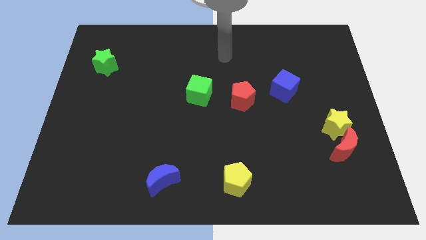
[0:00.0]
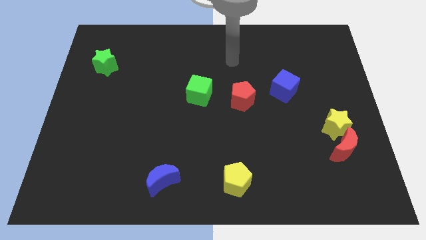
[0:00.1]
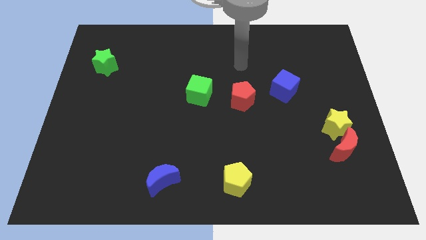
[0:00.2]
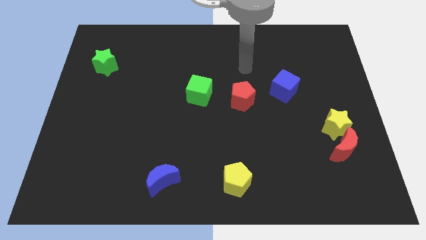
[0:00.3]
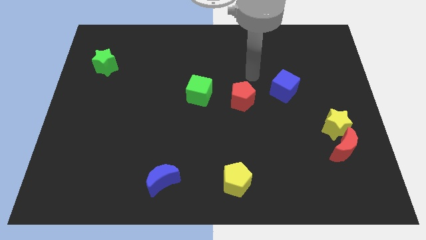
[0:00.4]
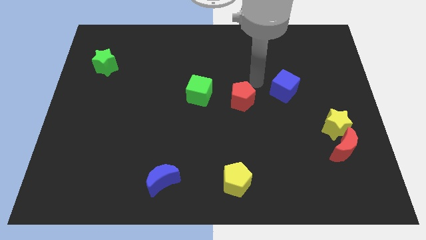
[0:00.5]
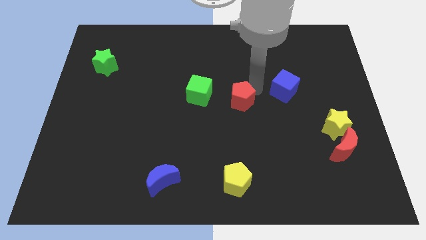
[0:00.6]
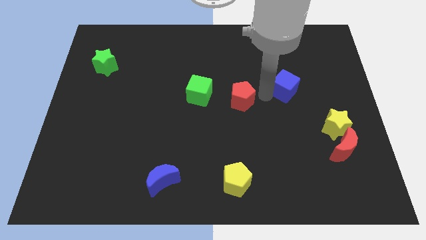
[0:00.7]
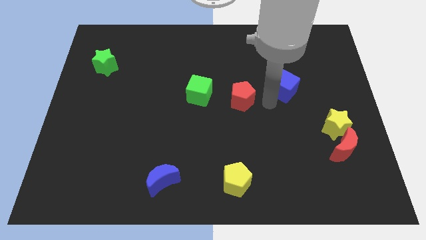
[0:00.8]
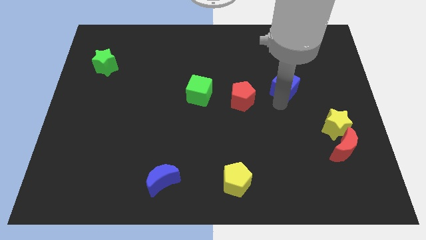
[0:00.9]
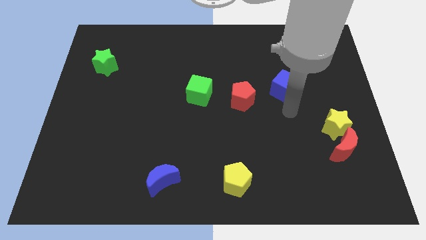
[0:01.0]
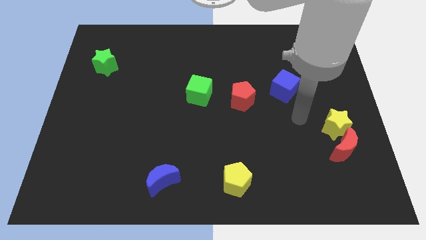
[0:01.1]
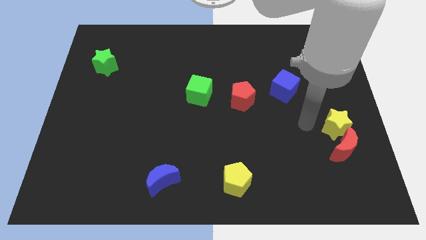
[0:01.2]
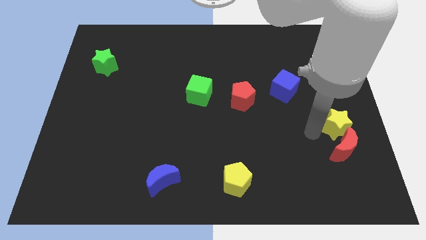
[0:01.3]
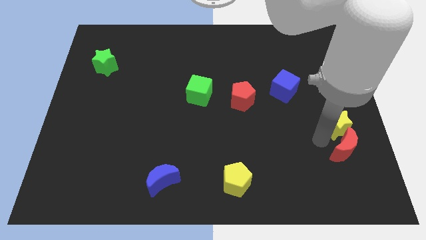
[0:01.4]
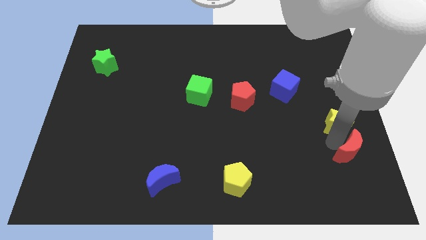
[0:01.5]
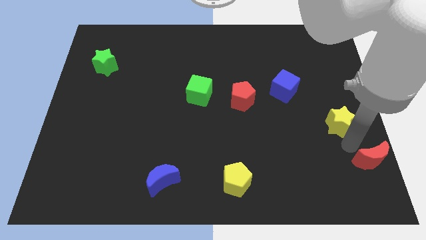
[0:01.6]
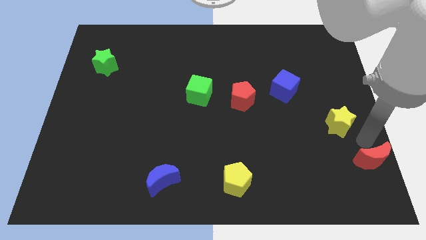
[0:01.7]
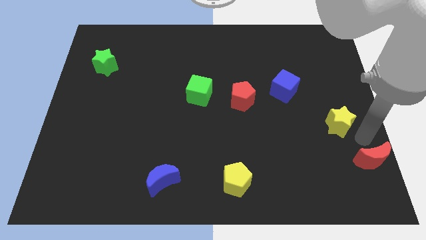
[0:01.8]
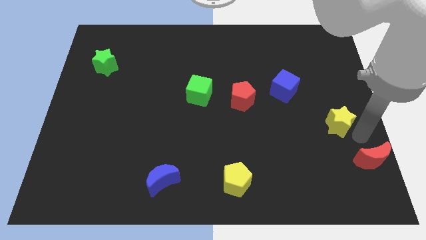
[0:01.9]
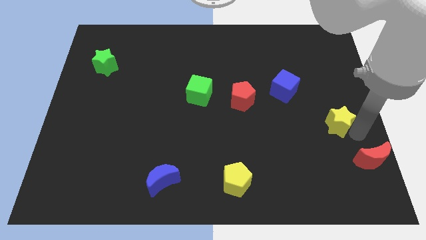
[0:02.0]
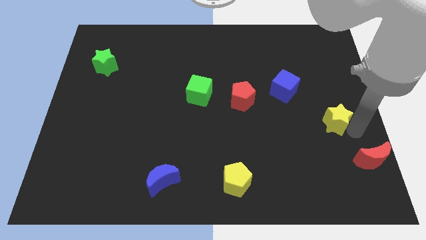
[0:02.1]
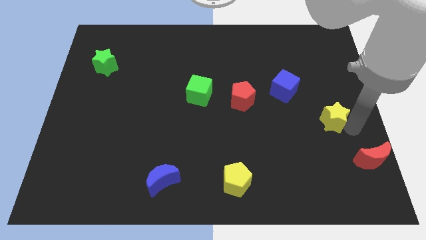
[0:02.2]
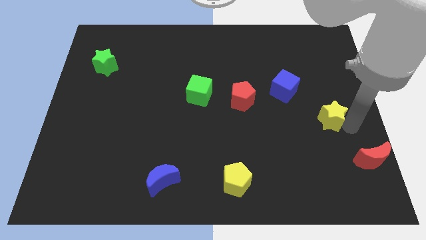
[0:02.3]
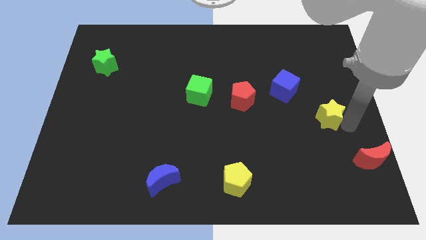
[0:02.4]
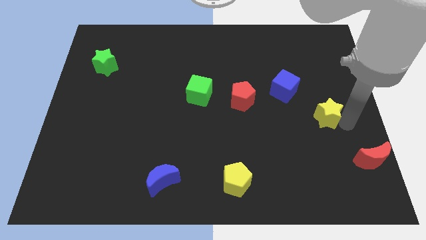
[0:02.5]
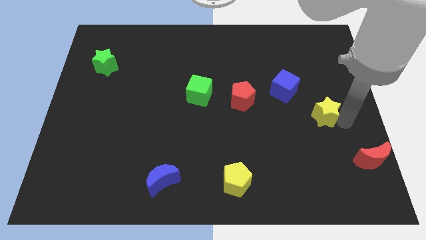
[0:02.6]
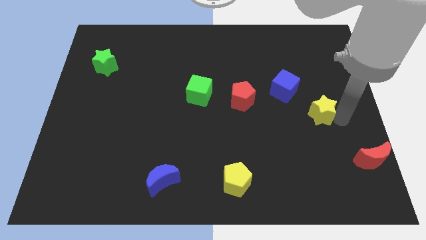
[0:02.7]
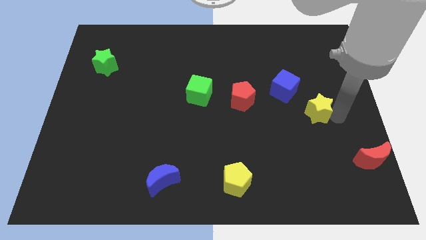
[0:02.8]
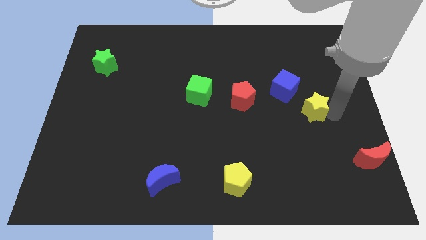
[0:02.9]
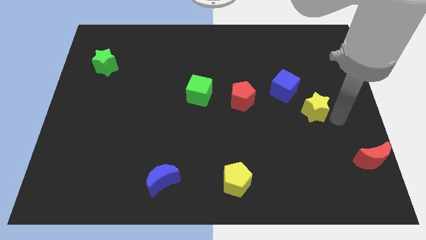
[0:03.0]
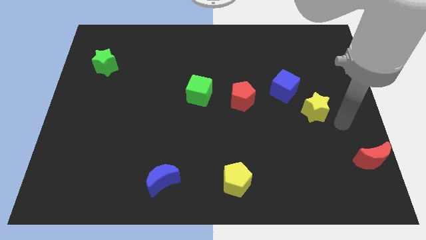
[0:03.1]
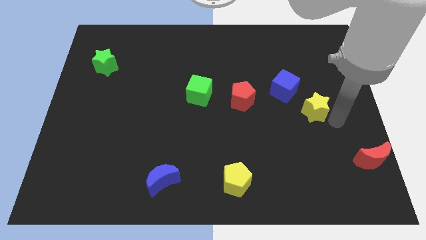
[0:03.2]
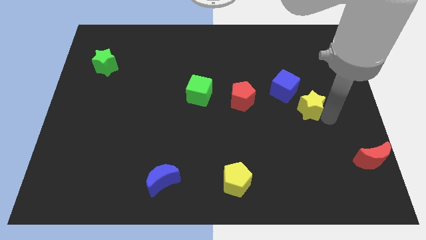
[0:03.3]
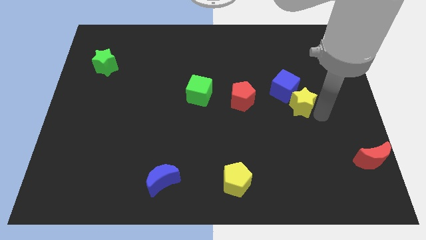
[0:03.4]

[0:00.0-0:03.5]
move the yellow star just right of the red pentagon

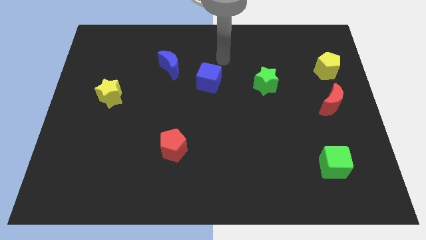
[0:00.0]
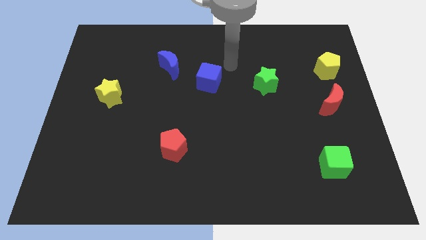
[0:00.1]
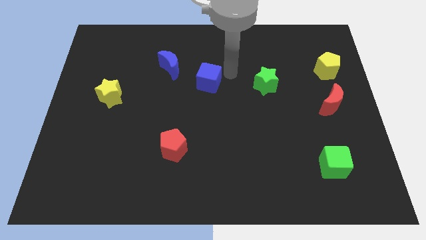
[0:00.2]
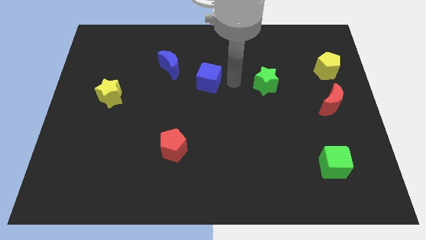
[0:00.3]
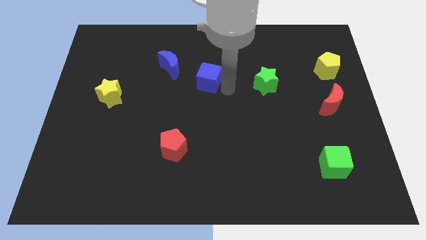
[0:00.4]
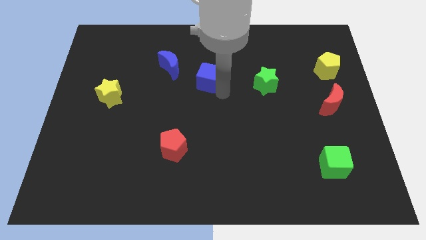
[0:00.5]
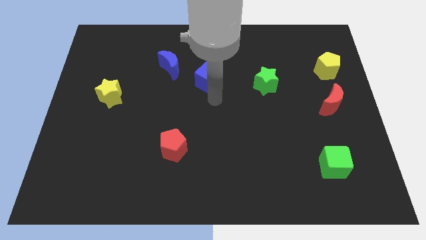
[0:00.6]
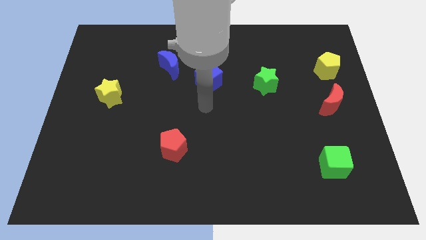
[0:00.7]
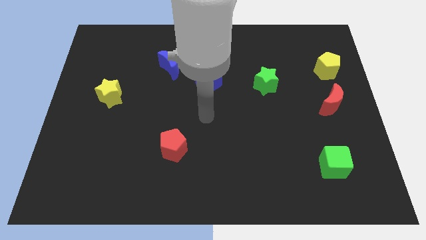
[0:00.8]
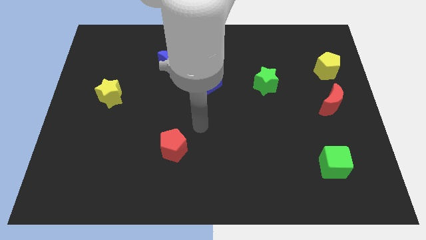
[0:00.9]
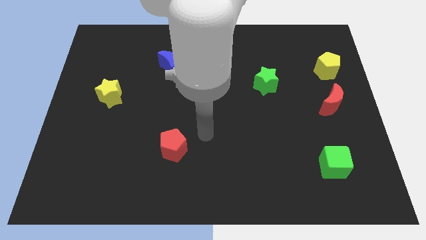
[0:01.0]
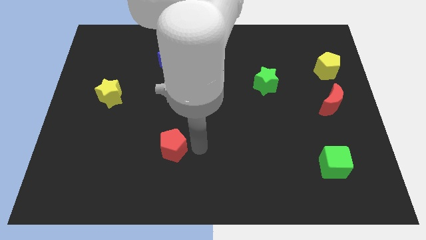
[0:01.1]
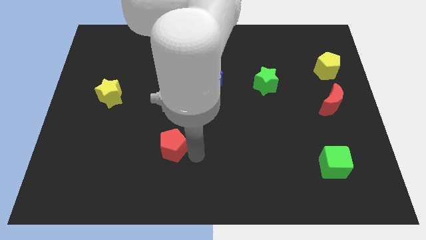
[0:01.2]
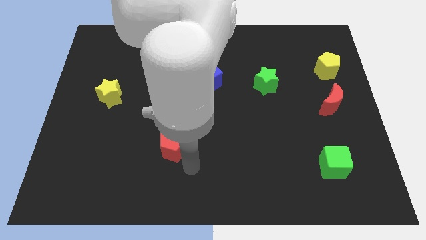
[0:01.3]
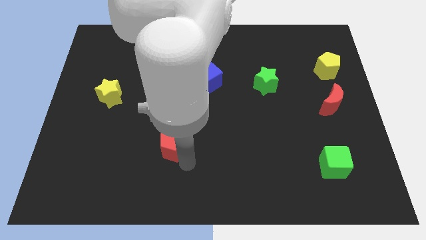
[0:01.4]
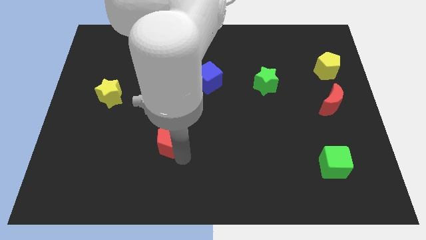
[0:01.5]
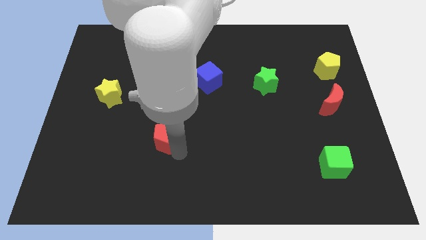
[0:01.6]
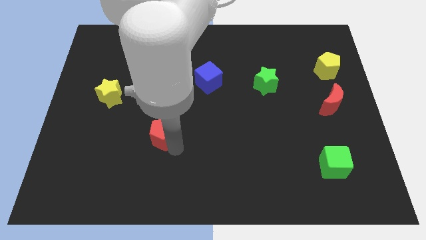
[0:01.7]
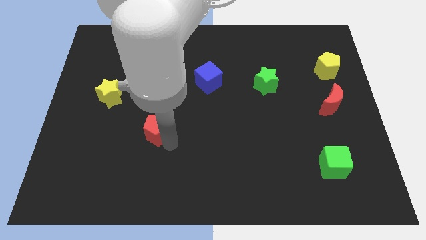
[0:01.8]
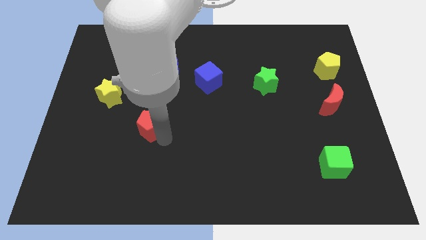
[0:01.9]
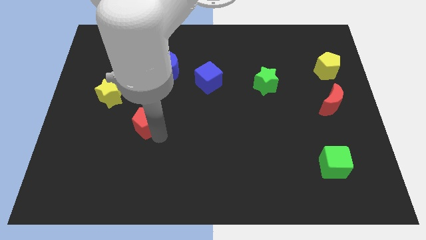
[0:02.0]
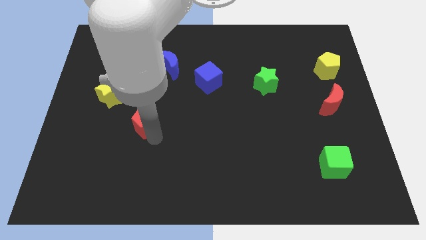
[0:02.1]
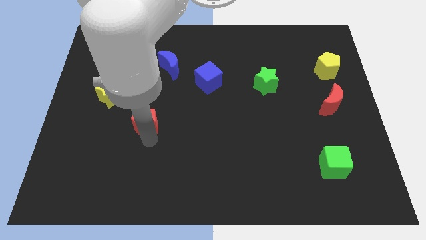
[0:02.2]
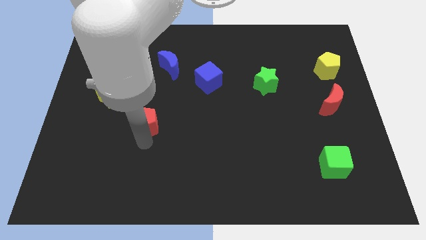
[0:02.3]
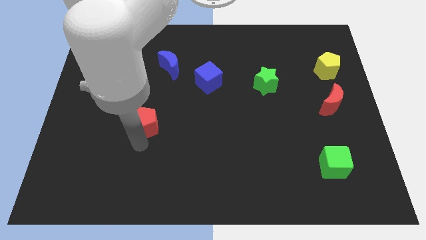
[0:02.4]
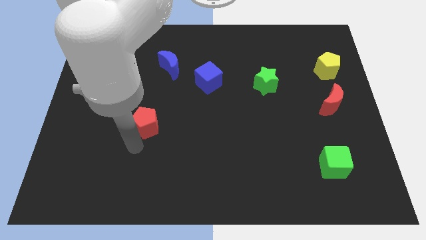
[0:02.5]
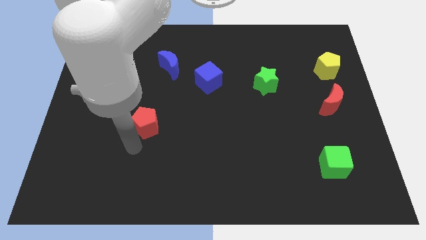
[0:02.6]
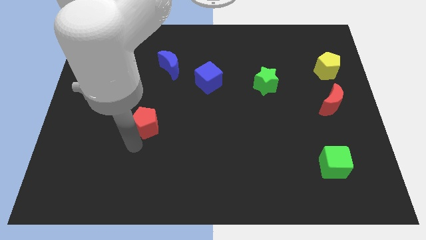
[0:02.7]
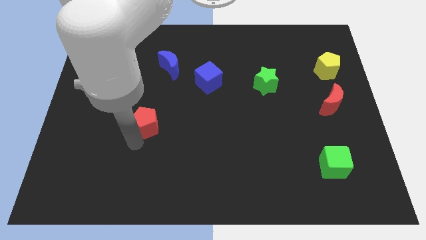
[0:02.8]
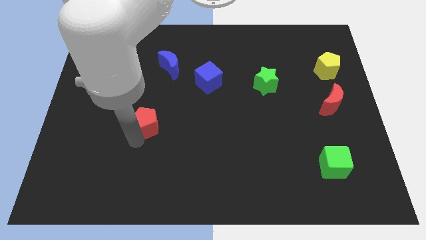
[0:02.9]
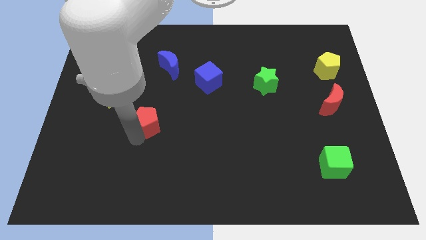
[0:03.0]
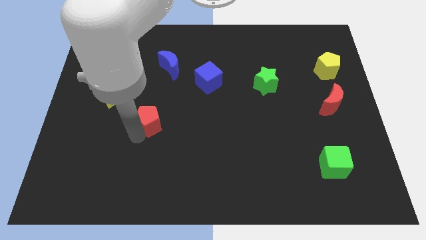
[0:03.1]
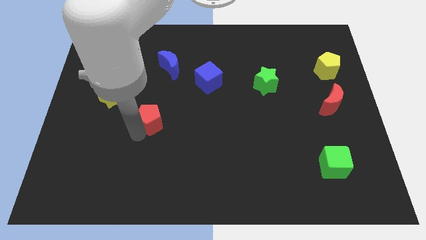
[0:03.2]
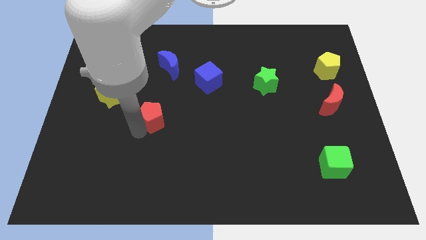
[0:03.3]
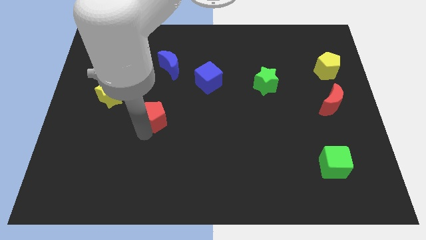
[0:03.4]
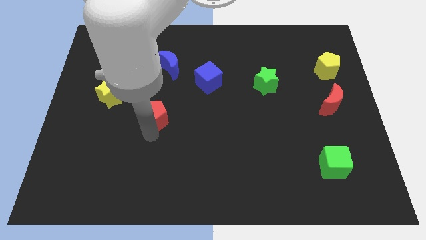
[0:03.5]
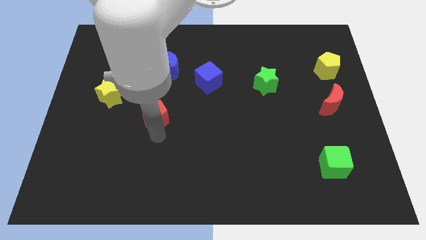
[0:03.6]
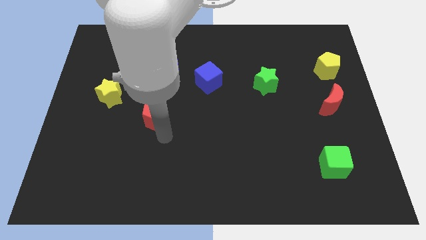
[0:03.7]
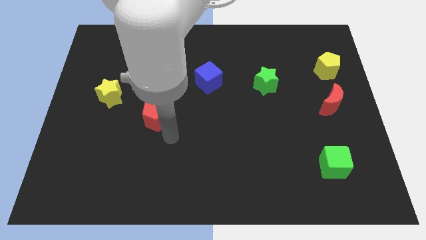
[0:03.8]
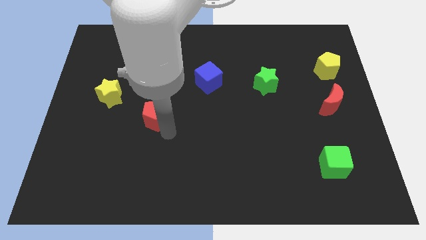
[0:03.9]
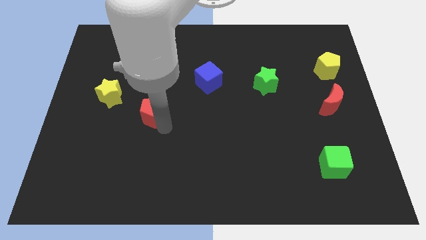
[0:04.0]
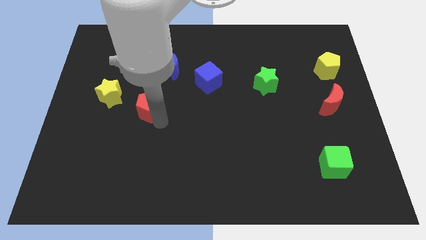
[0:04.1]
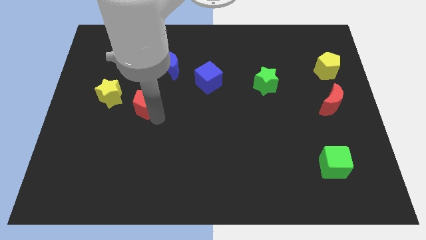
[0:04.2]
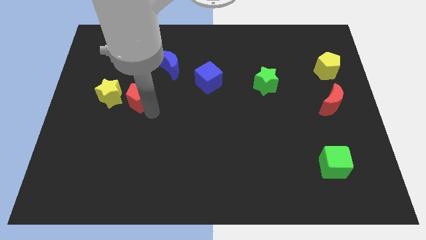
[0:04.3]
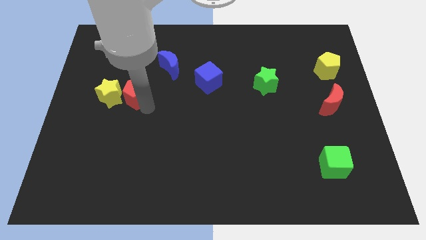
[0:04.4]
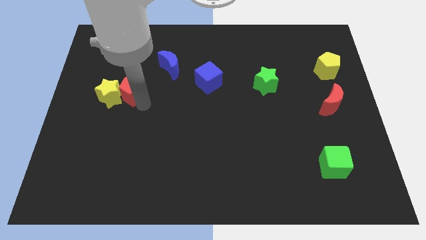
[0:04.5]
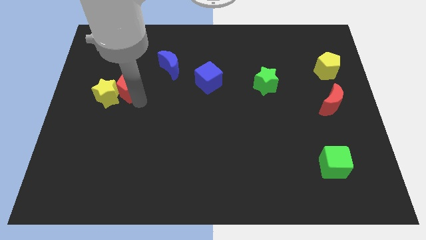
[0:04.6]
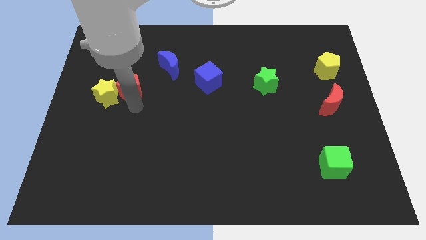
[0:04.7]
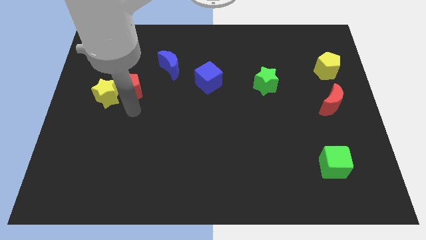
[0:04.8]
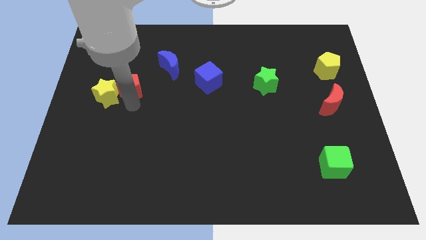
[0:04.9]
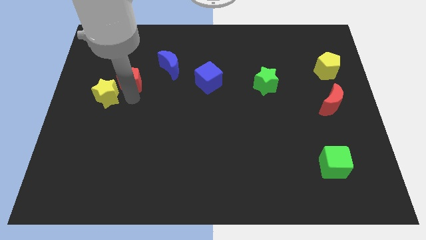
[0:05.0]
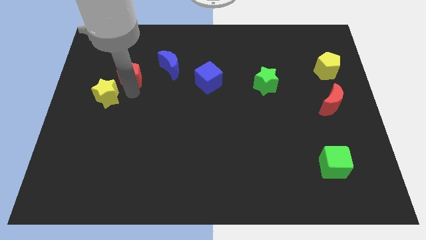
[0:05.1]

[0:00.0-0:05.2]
move the red pentagon just left of the blue moon
